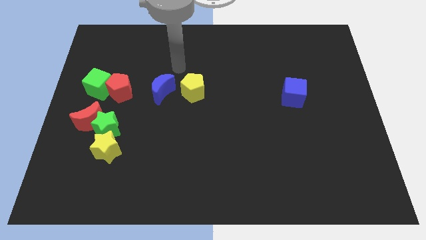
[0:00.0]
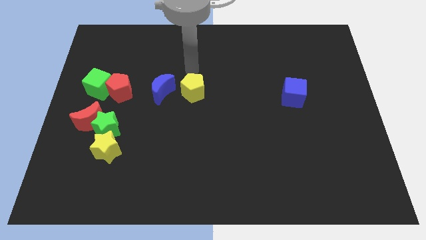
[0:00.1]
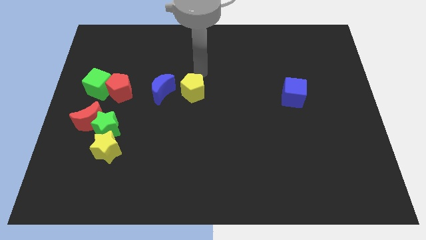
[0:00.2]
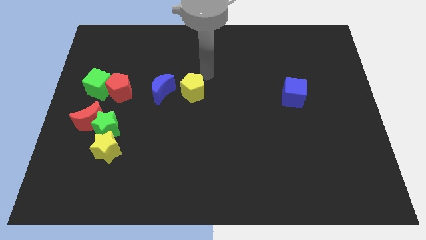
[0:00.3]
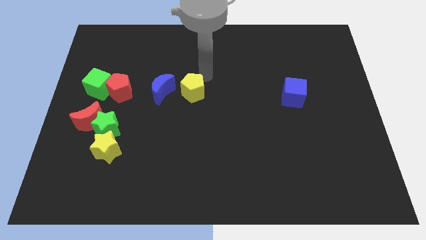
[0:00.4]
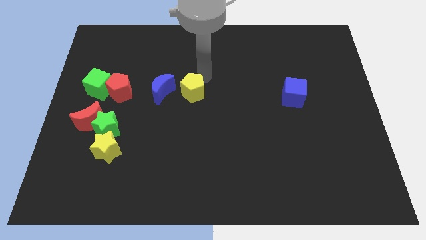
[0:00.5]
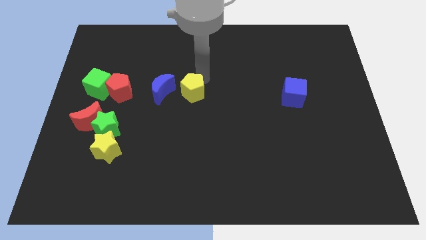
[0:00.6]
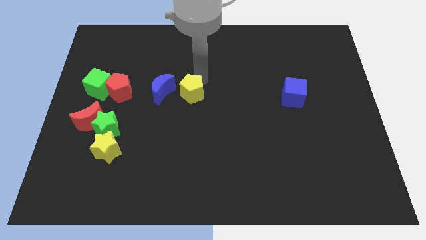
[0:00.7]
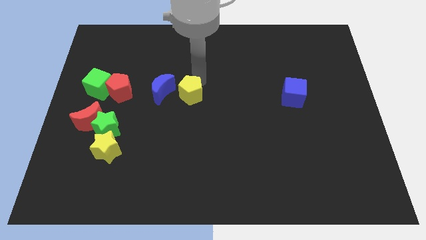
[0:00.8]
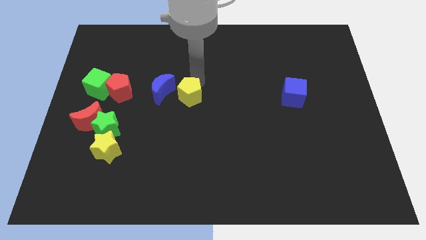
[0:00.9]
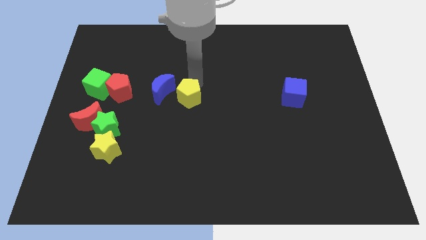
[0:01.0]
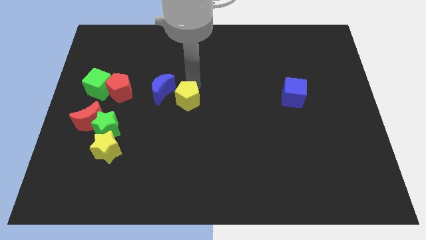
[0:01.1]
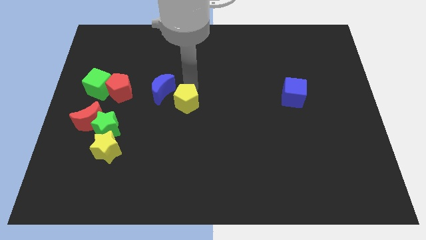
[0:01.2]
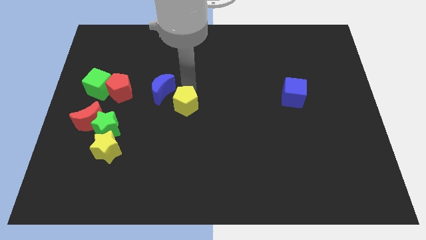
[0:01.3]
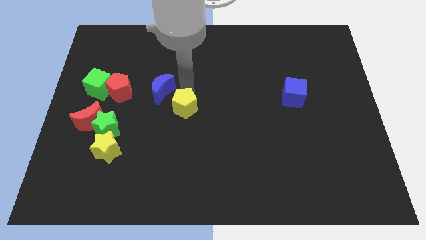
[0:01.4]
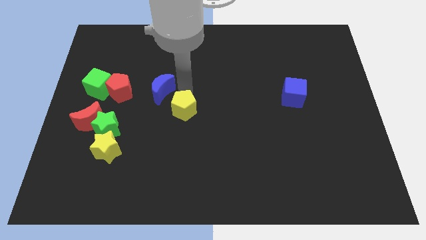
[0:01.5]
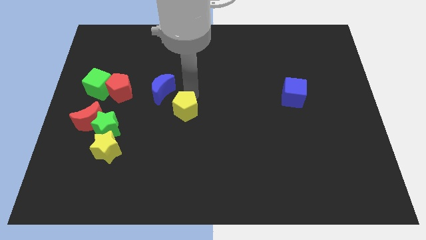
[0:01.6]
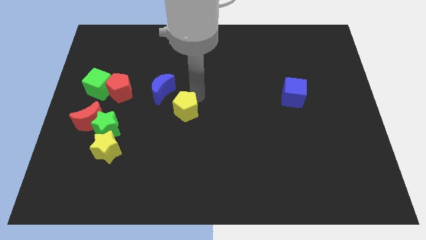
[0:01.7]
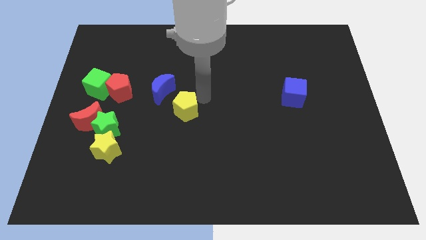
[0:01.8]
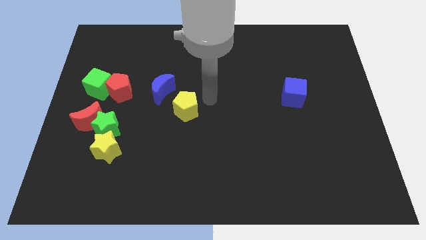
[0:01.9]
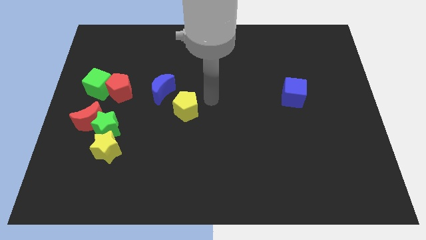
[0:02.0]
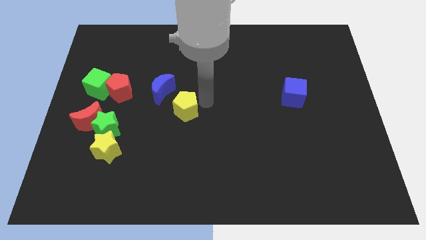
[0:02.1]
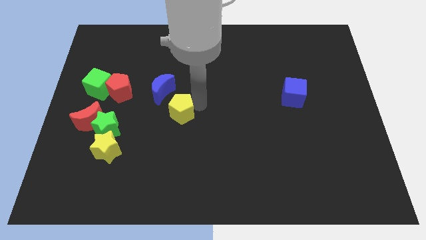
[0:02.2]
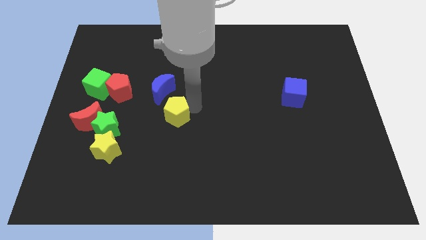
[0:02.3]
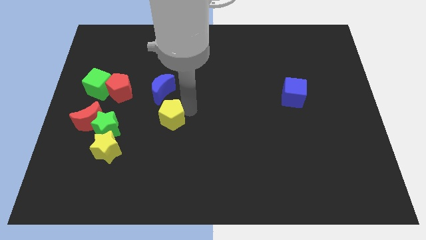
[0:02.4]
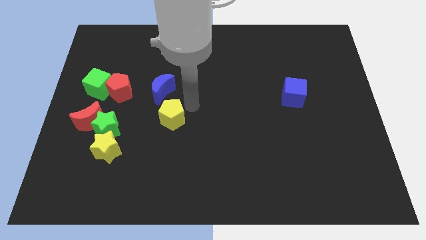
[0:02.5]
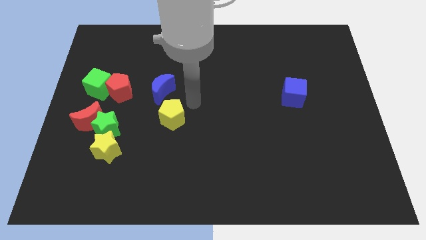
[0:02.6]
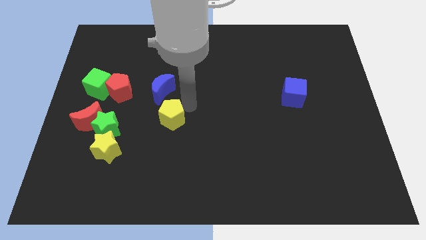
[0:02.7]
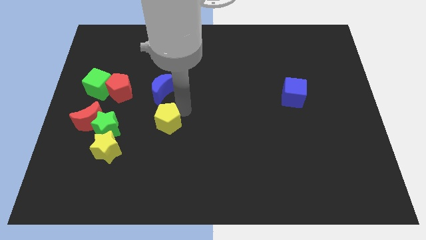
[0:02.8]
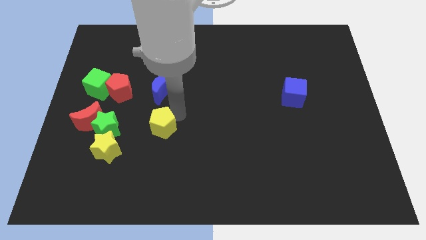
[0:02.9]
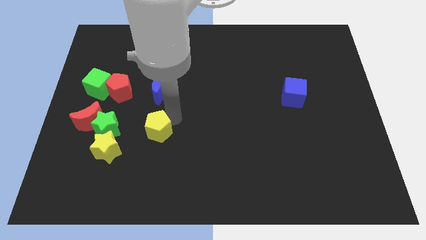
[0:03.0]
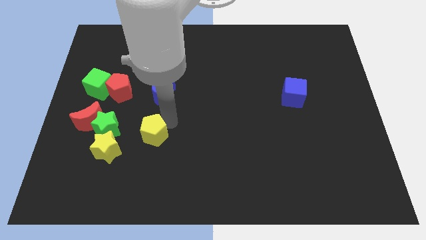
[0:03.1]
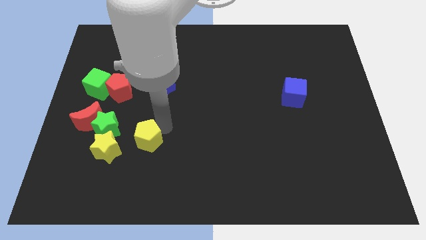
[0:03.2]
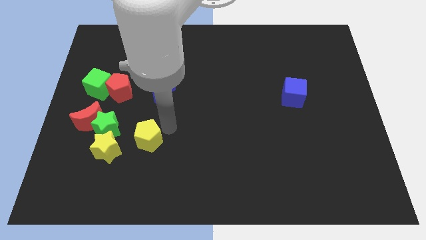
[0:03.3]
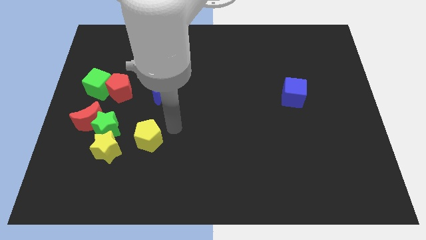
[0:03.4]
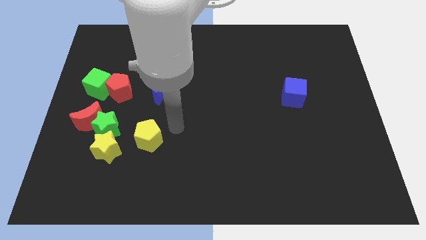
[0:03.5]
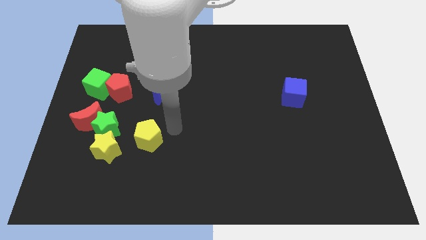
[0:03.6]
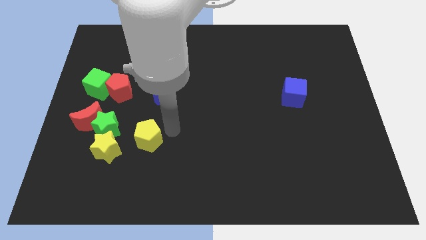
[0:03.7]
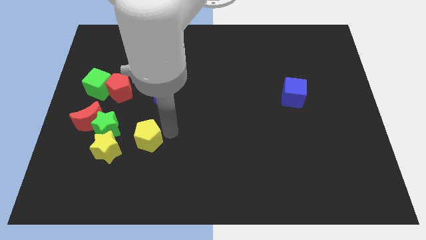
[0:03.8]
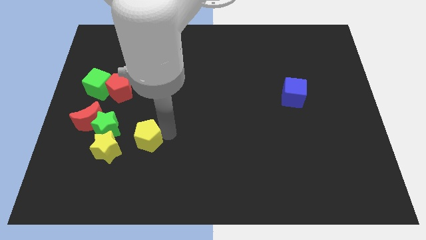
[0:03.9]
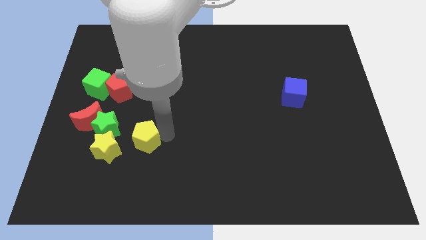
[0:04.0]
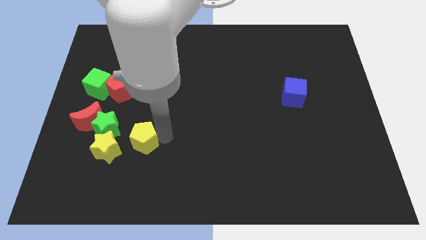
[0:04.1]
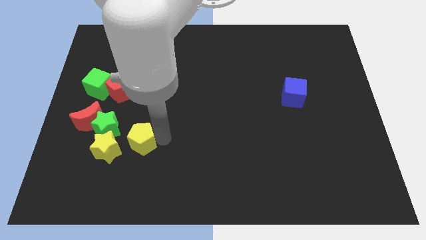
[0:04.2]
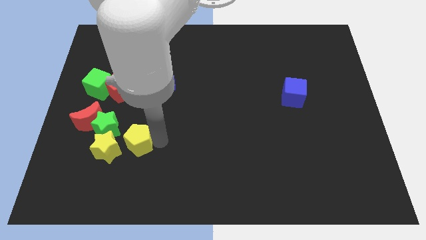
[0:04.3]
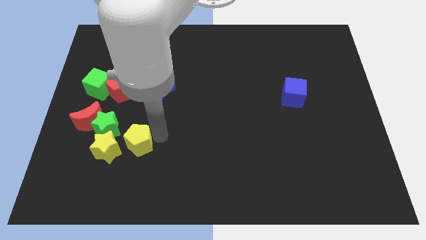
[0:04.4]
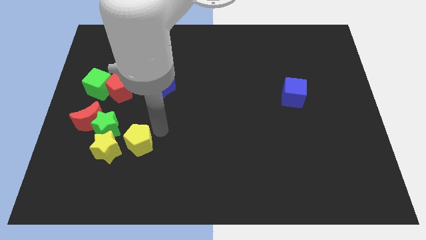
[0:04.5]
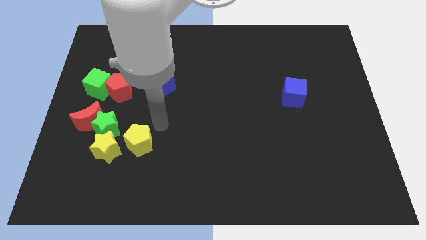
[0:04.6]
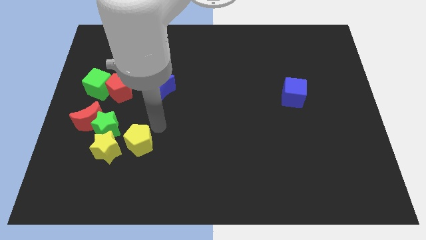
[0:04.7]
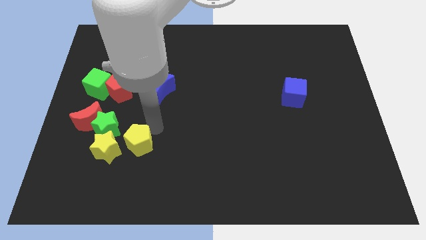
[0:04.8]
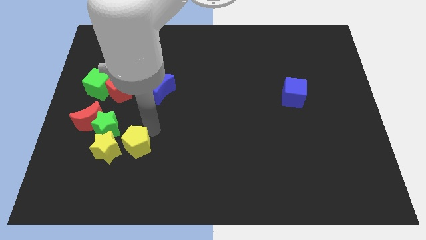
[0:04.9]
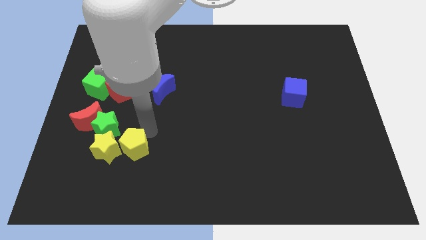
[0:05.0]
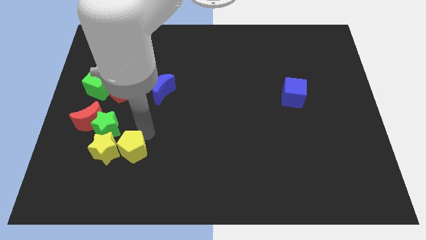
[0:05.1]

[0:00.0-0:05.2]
slide the yellow pentagon down and then left

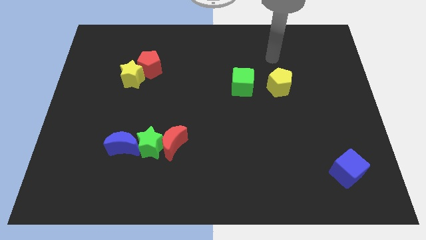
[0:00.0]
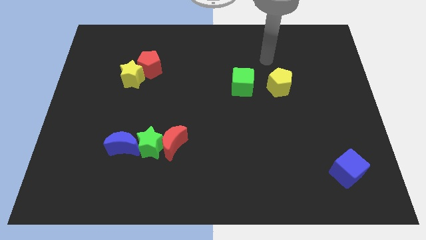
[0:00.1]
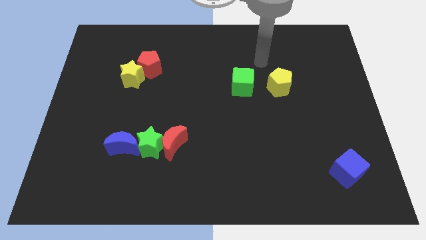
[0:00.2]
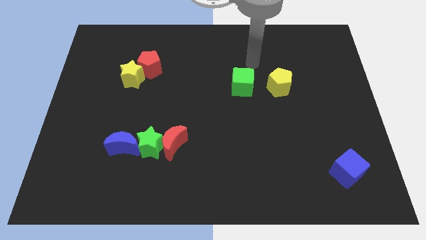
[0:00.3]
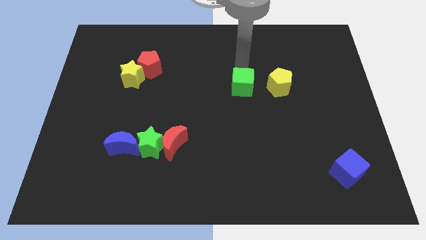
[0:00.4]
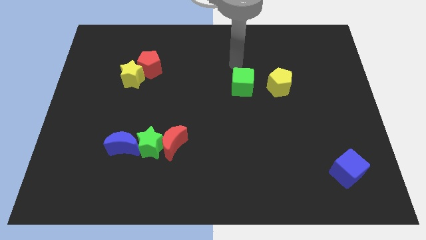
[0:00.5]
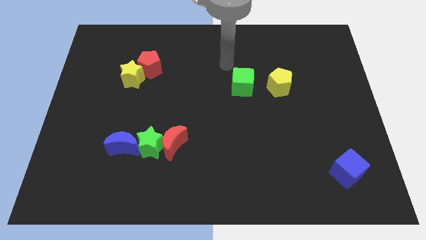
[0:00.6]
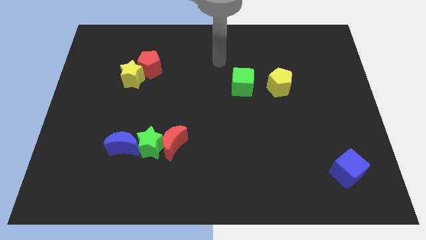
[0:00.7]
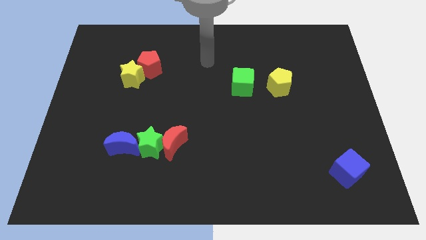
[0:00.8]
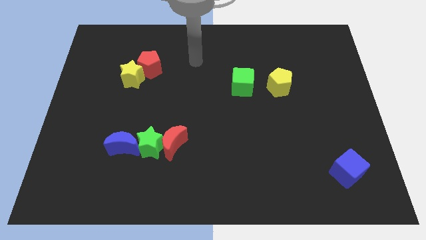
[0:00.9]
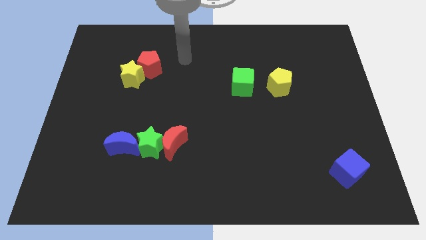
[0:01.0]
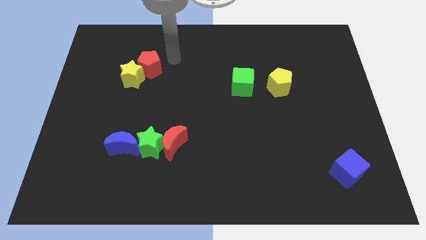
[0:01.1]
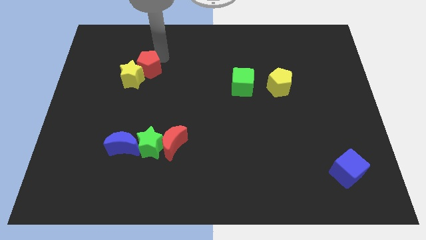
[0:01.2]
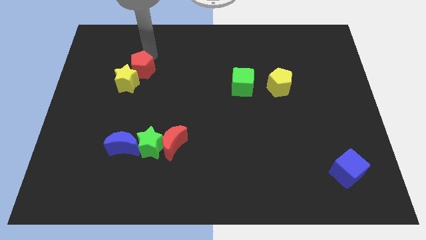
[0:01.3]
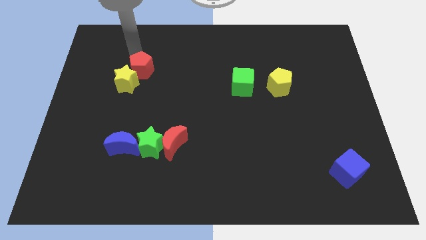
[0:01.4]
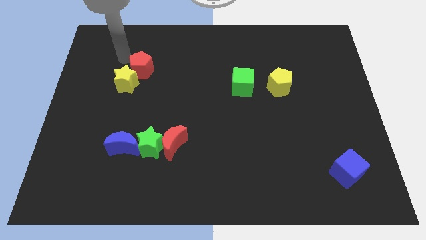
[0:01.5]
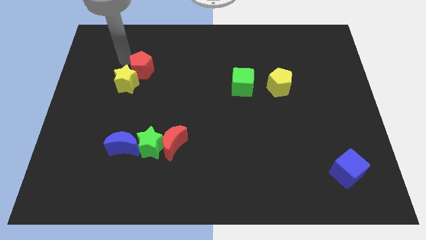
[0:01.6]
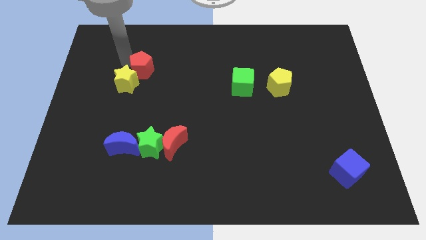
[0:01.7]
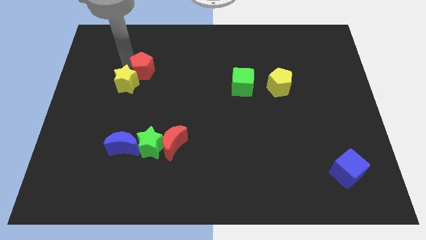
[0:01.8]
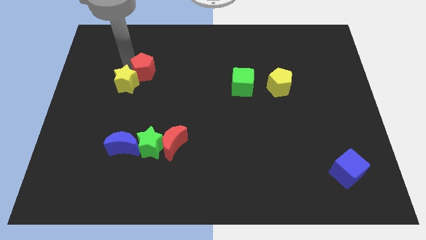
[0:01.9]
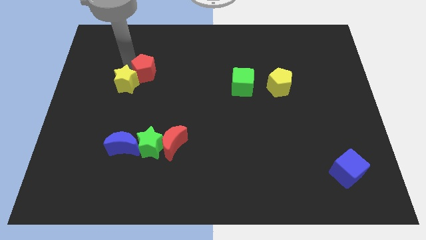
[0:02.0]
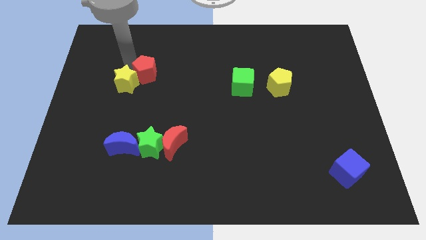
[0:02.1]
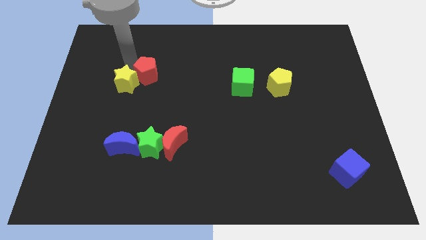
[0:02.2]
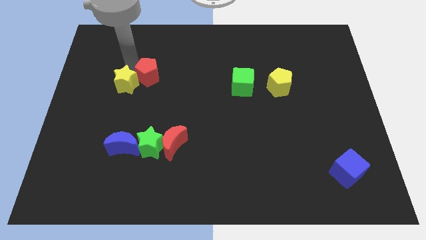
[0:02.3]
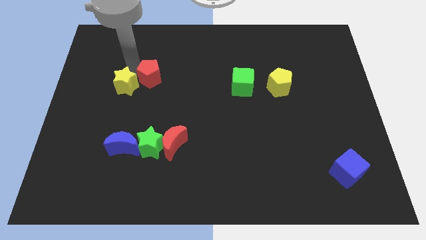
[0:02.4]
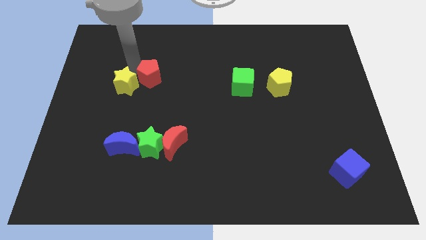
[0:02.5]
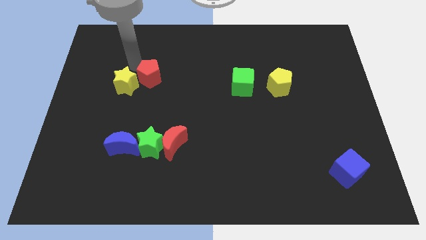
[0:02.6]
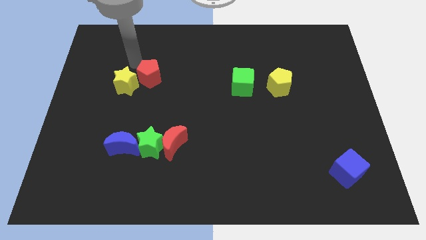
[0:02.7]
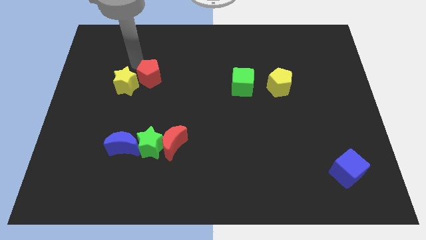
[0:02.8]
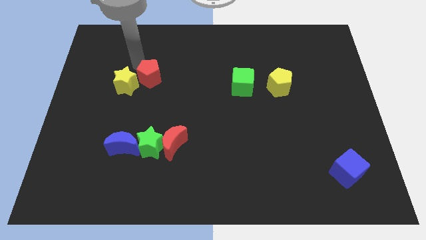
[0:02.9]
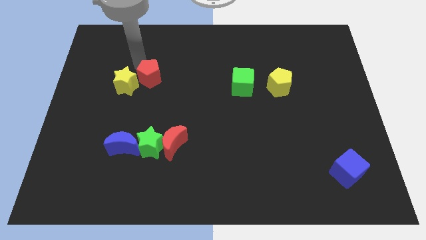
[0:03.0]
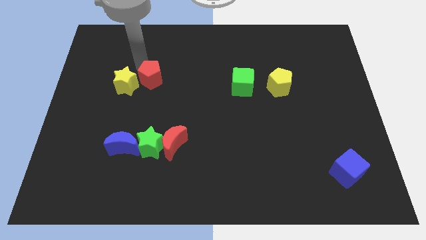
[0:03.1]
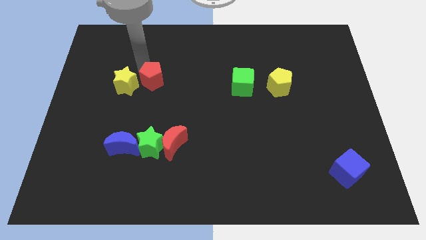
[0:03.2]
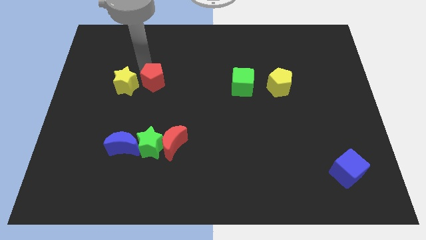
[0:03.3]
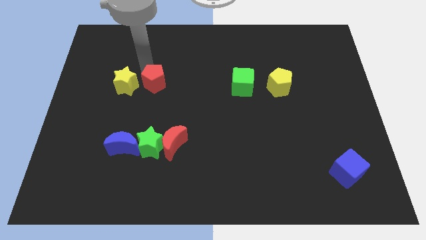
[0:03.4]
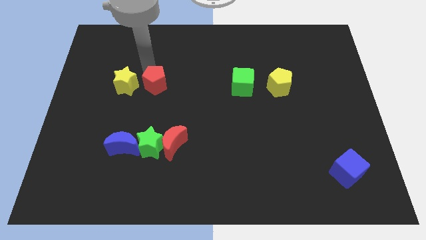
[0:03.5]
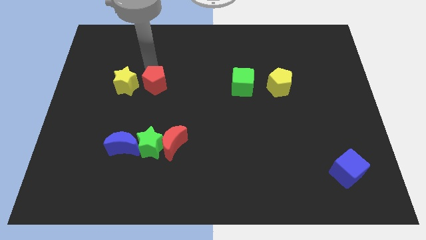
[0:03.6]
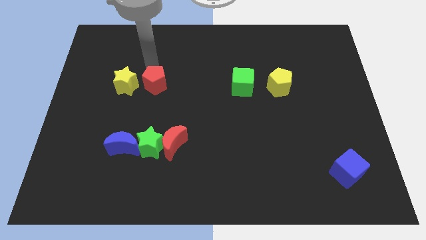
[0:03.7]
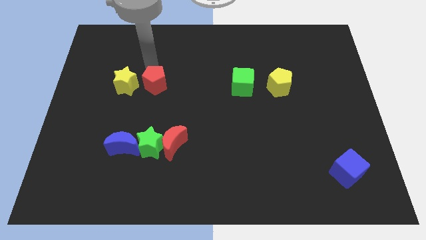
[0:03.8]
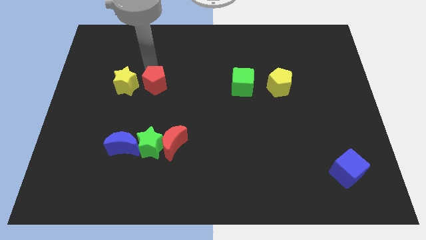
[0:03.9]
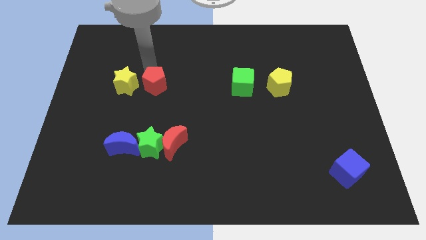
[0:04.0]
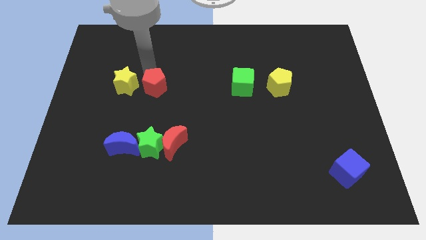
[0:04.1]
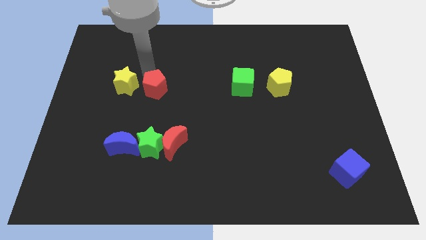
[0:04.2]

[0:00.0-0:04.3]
slide the red pentagon down somewhat
